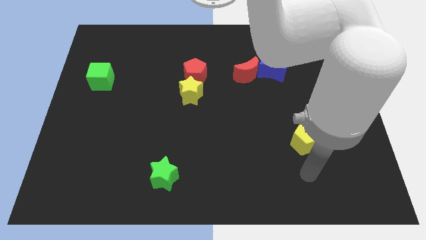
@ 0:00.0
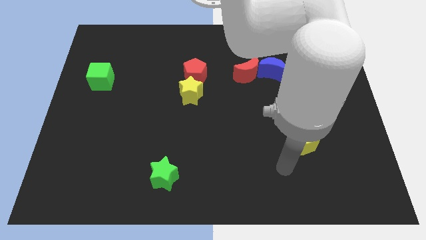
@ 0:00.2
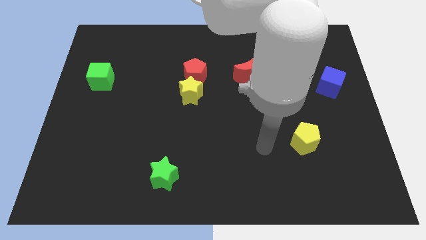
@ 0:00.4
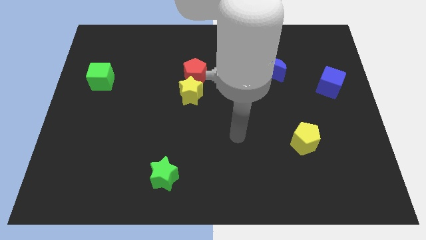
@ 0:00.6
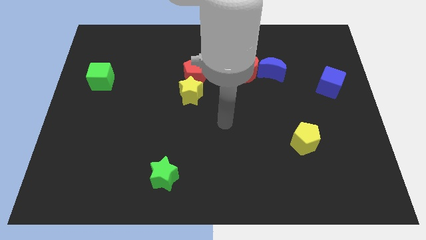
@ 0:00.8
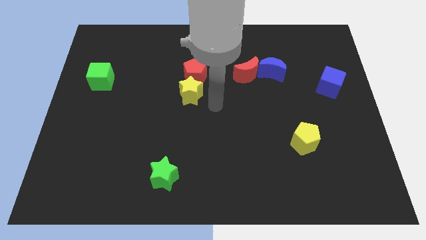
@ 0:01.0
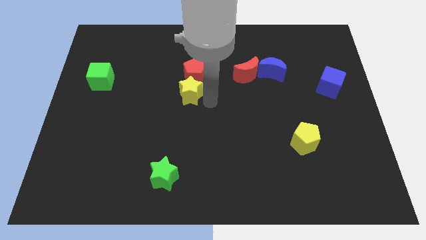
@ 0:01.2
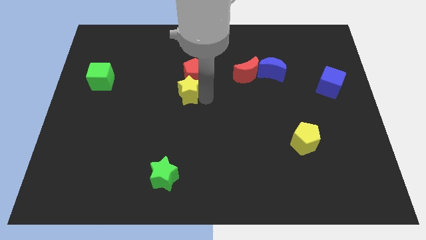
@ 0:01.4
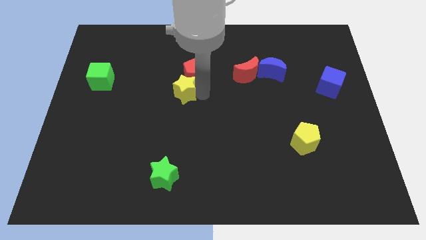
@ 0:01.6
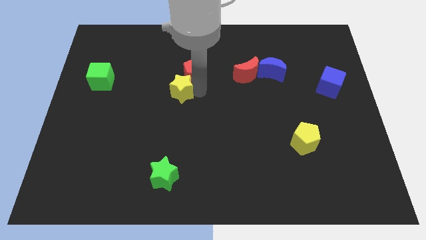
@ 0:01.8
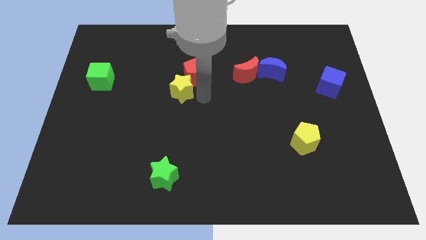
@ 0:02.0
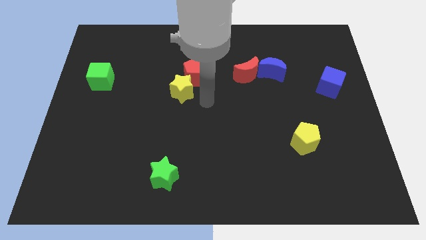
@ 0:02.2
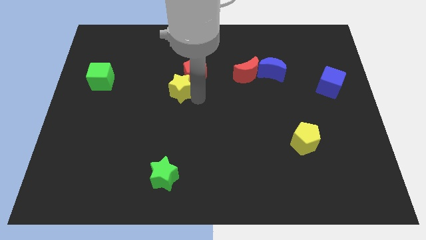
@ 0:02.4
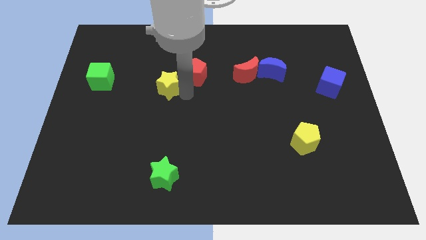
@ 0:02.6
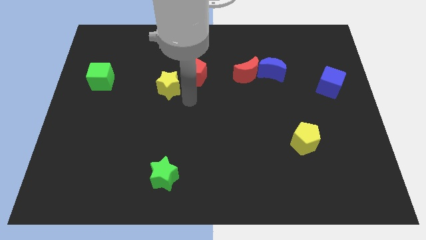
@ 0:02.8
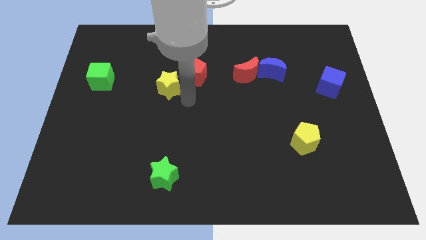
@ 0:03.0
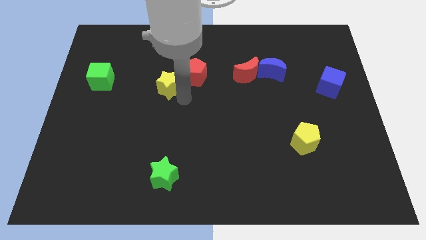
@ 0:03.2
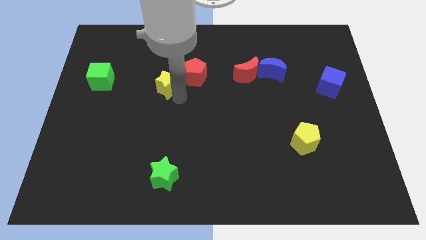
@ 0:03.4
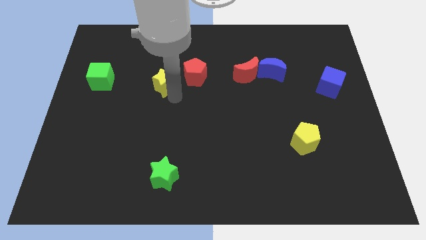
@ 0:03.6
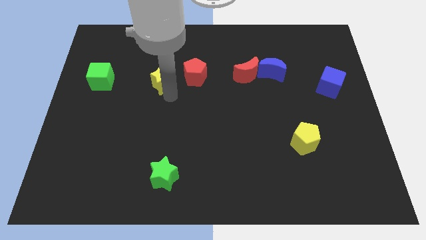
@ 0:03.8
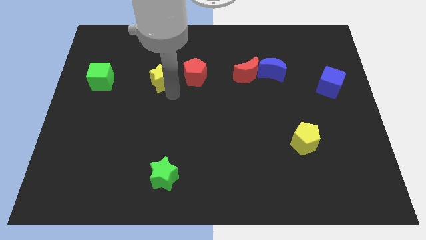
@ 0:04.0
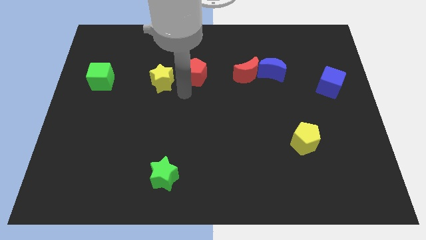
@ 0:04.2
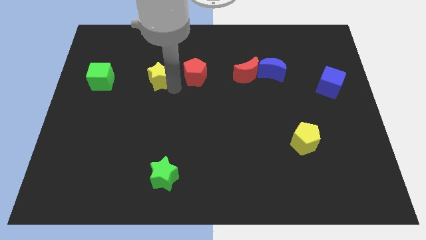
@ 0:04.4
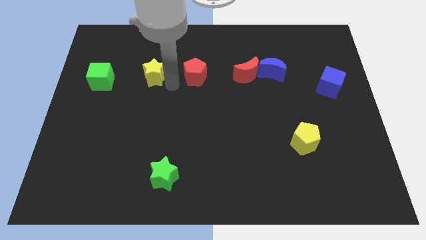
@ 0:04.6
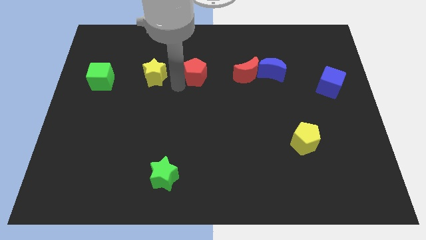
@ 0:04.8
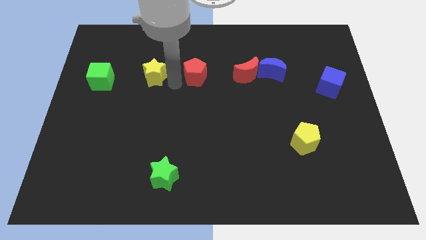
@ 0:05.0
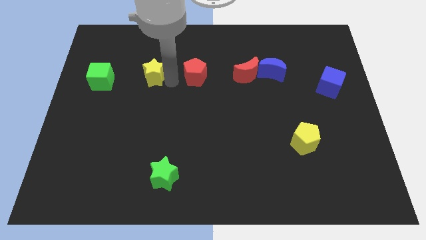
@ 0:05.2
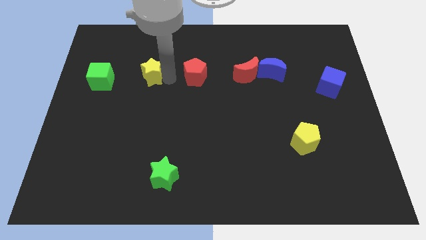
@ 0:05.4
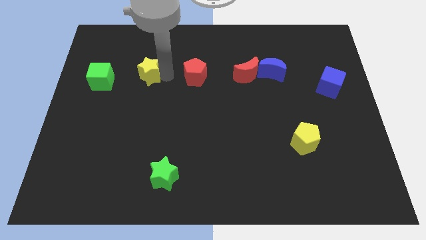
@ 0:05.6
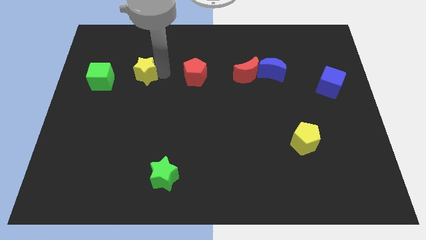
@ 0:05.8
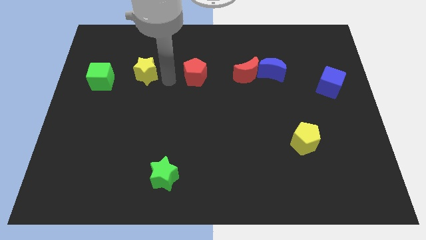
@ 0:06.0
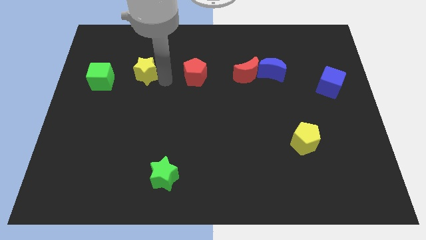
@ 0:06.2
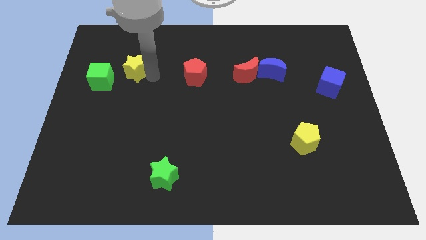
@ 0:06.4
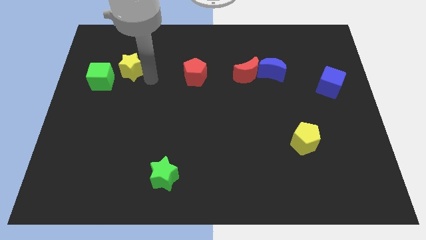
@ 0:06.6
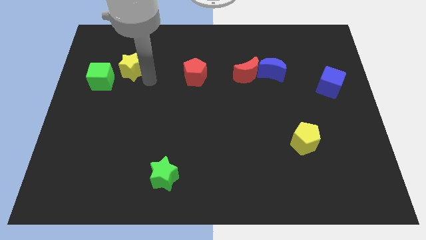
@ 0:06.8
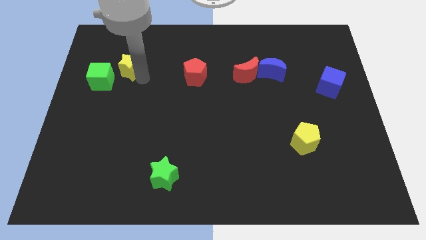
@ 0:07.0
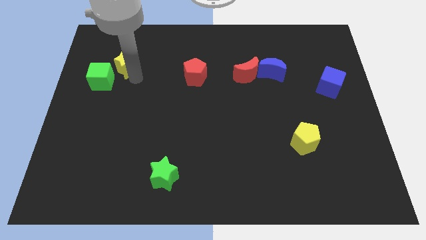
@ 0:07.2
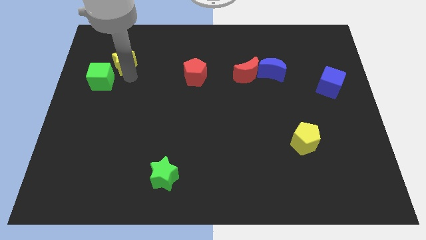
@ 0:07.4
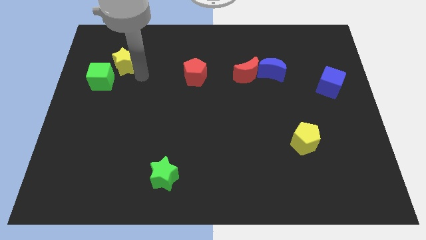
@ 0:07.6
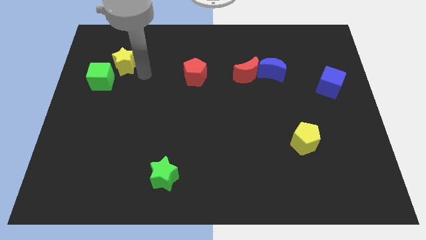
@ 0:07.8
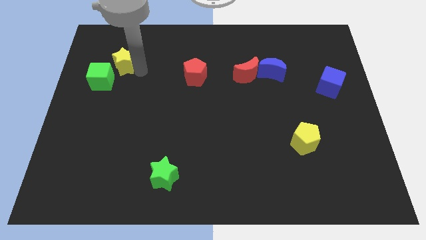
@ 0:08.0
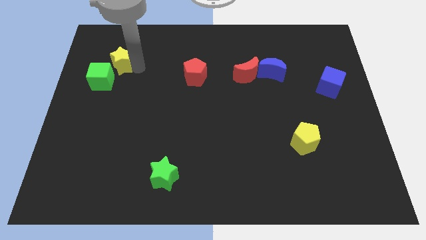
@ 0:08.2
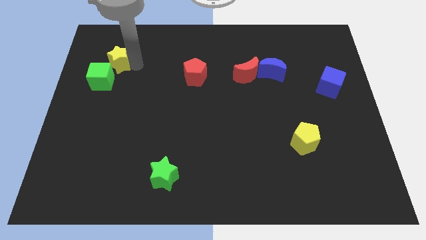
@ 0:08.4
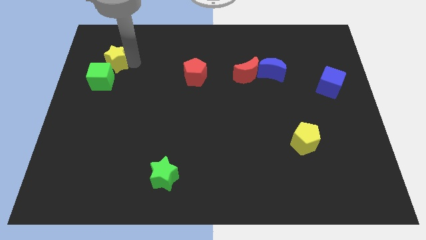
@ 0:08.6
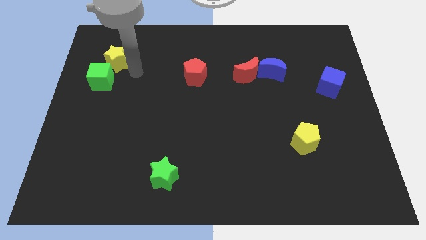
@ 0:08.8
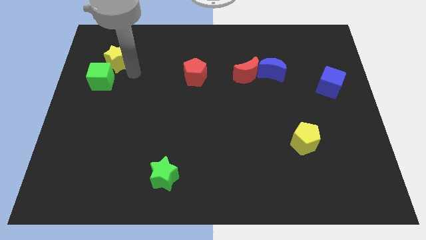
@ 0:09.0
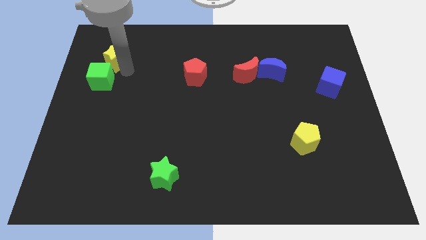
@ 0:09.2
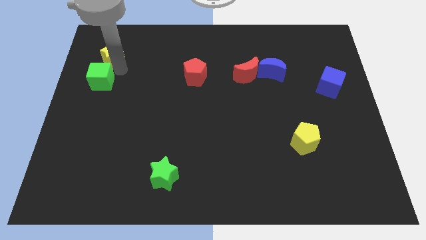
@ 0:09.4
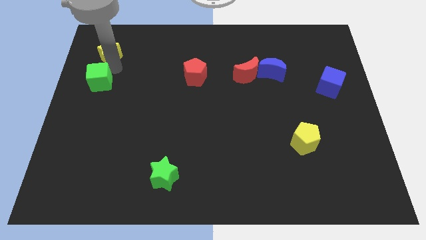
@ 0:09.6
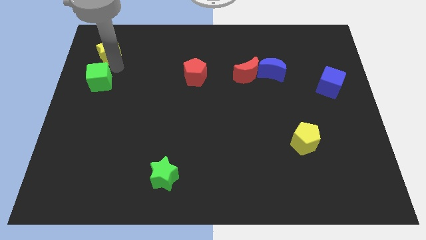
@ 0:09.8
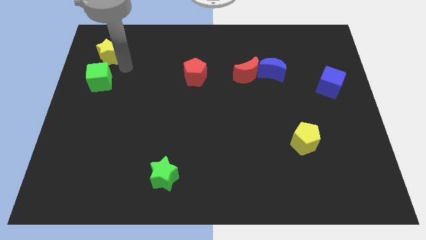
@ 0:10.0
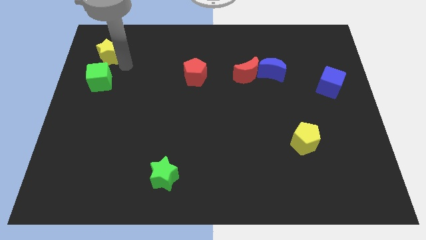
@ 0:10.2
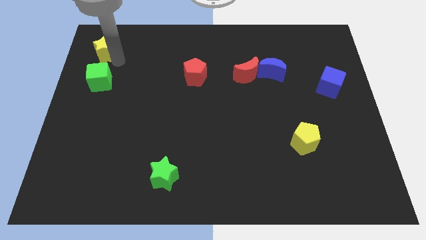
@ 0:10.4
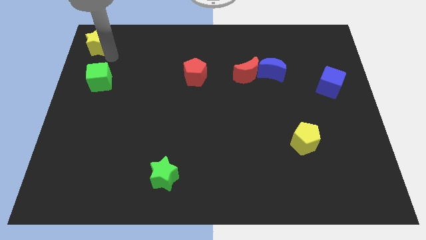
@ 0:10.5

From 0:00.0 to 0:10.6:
push the yellow star to the top left corner

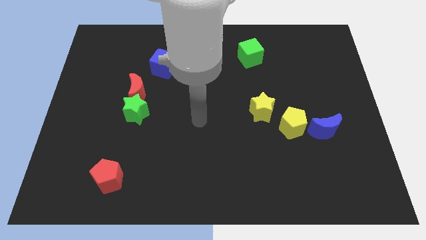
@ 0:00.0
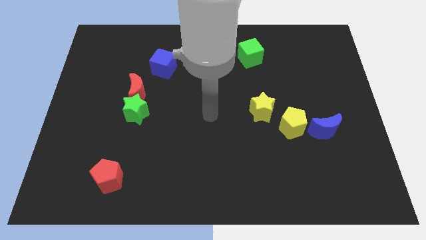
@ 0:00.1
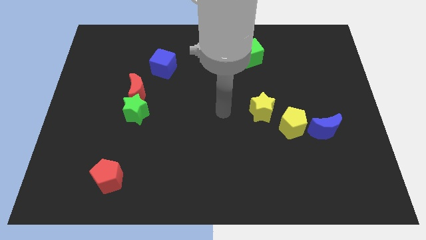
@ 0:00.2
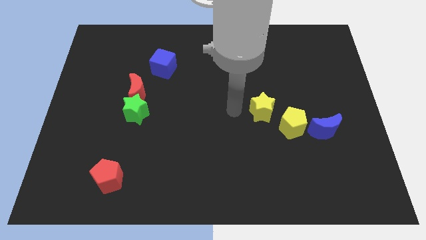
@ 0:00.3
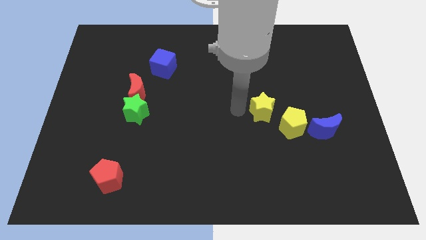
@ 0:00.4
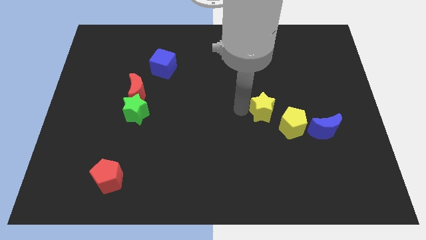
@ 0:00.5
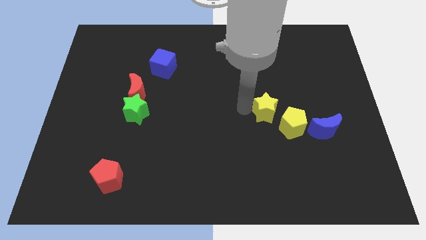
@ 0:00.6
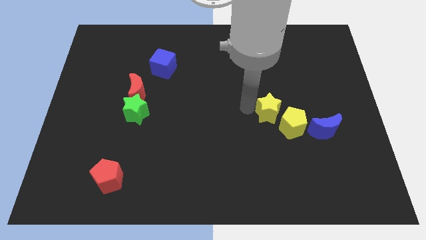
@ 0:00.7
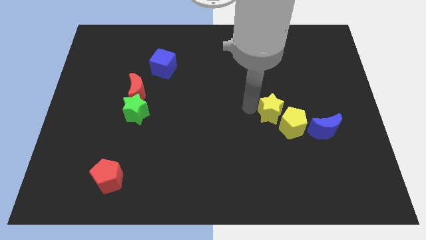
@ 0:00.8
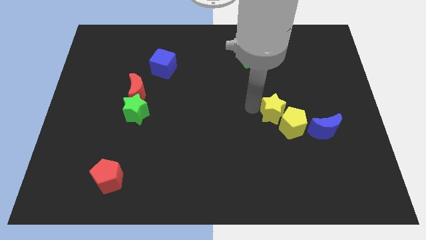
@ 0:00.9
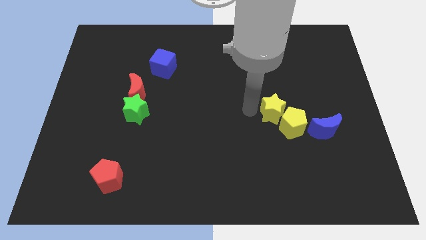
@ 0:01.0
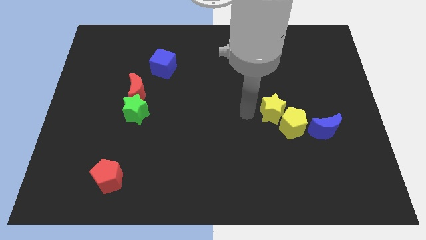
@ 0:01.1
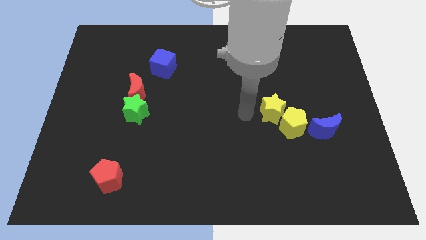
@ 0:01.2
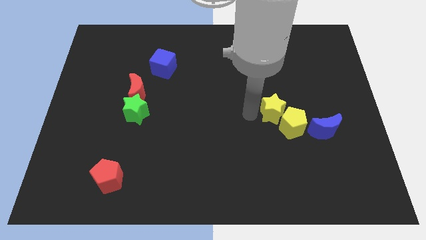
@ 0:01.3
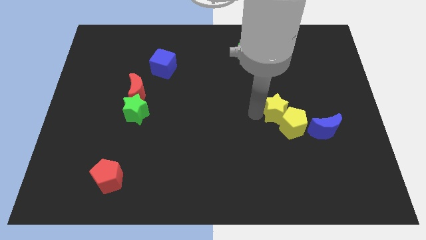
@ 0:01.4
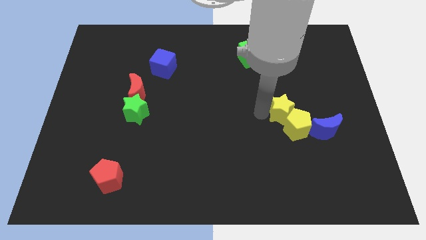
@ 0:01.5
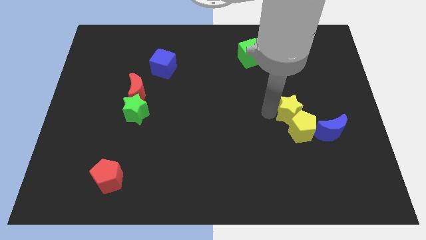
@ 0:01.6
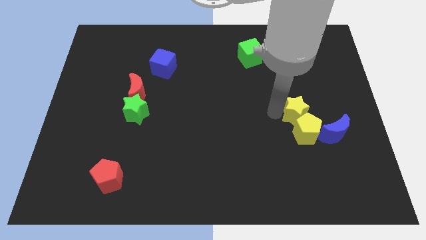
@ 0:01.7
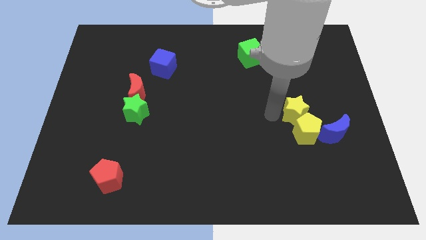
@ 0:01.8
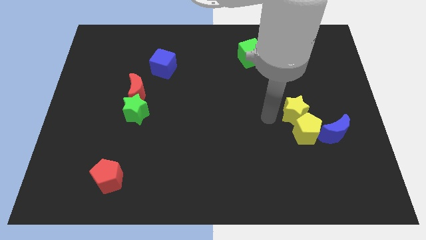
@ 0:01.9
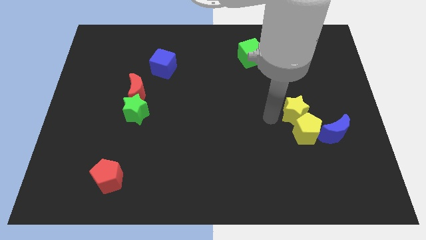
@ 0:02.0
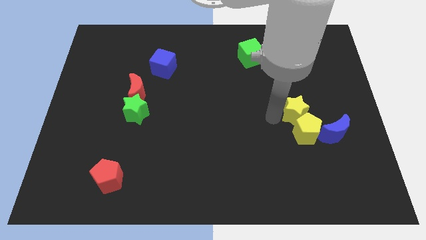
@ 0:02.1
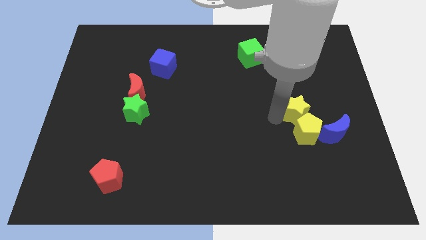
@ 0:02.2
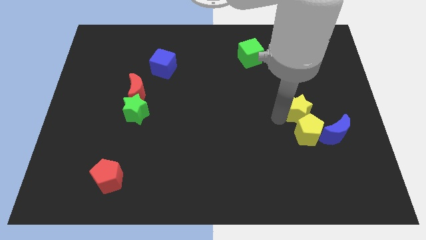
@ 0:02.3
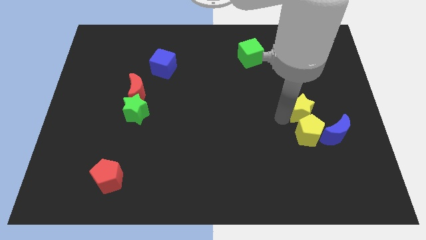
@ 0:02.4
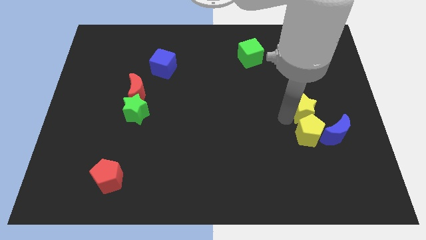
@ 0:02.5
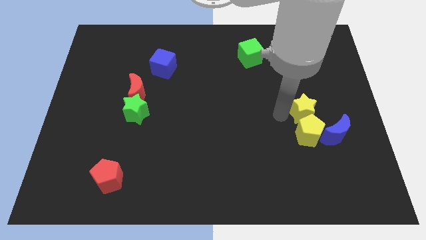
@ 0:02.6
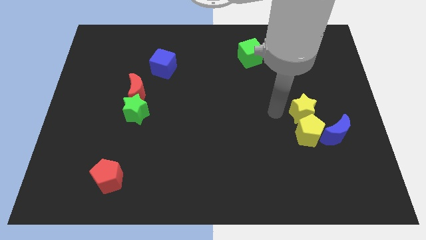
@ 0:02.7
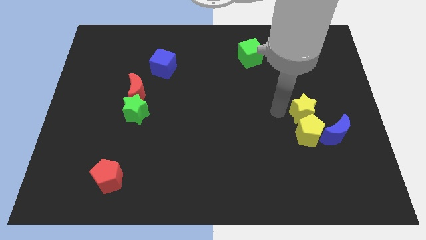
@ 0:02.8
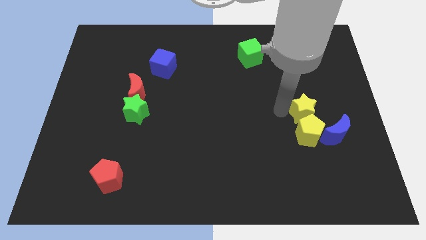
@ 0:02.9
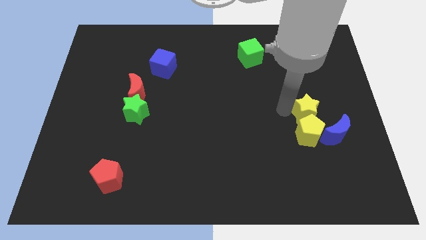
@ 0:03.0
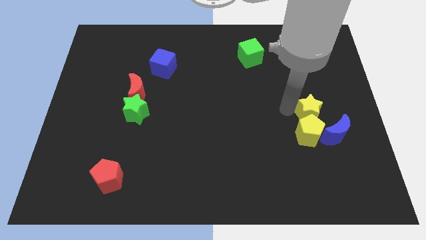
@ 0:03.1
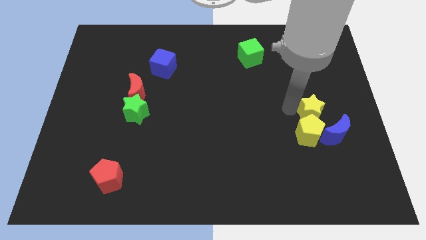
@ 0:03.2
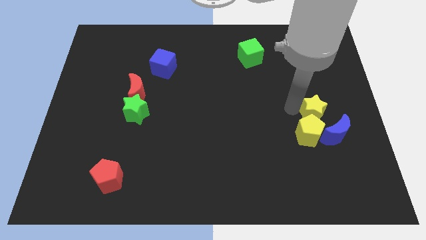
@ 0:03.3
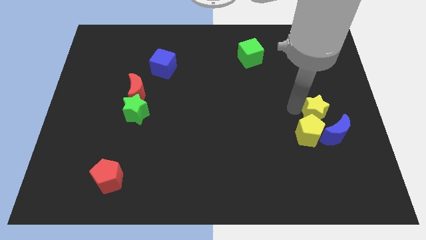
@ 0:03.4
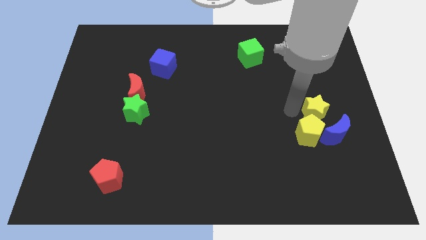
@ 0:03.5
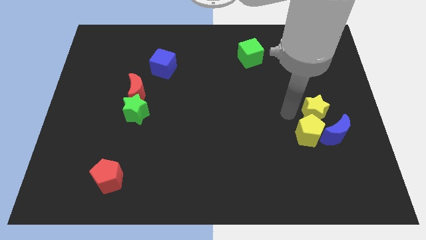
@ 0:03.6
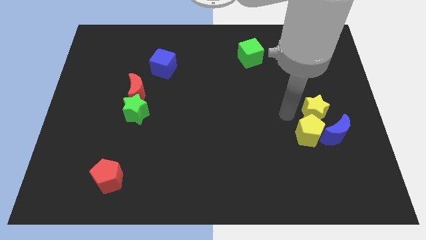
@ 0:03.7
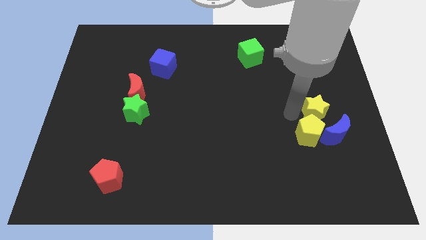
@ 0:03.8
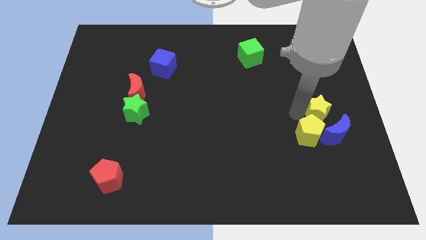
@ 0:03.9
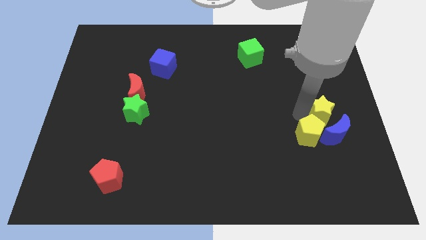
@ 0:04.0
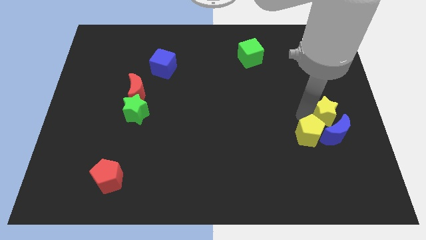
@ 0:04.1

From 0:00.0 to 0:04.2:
move the yellow star to the right side of the board
